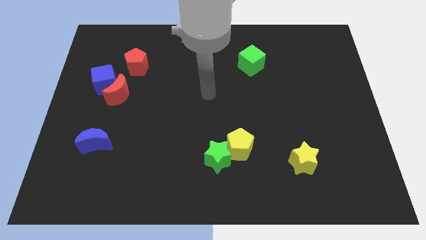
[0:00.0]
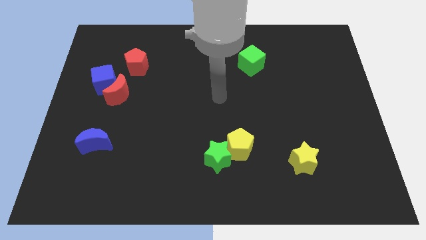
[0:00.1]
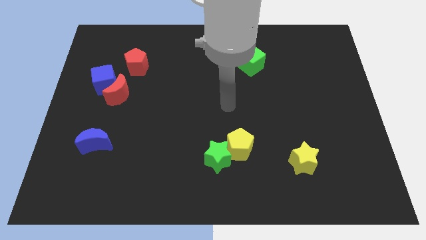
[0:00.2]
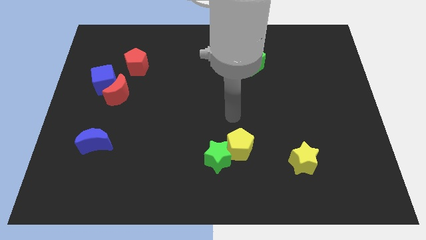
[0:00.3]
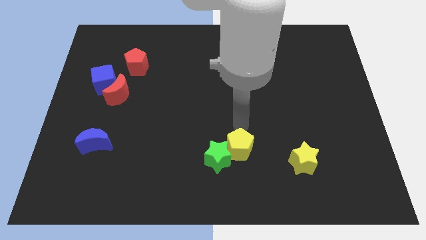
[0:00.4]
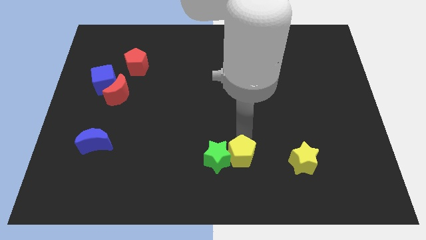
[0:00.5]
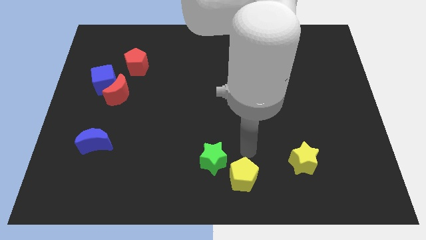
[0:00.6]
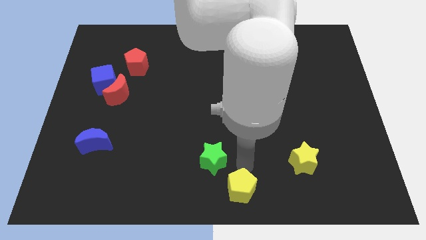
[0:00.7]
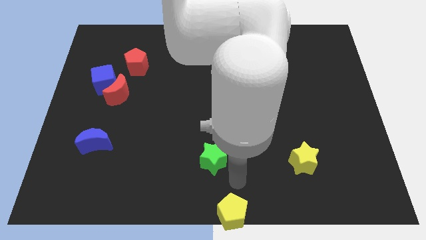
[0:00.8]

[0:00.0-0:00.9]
separate the green star from the yellow pentagon

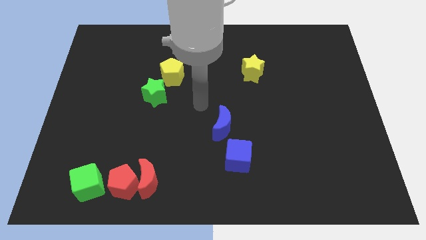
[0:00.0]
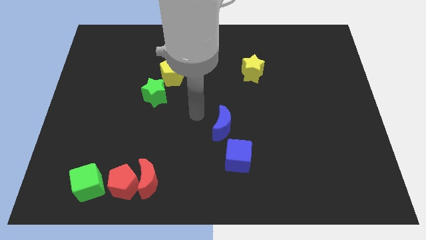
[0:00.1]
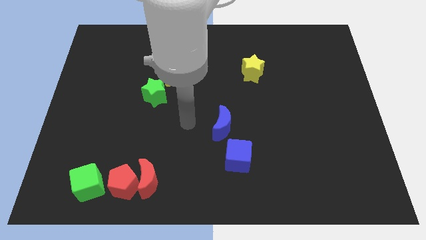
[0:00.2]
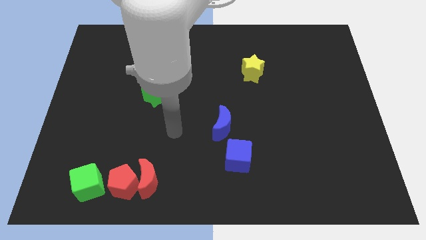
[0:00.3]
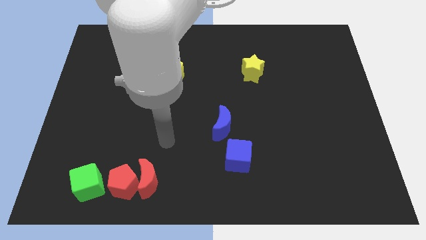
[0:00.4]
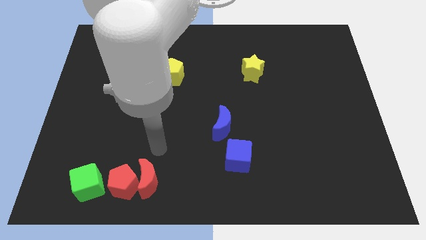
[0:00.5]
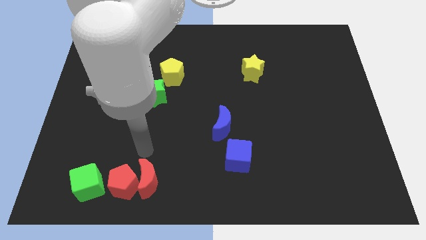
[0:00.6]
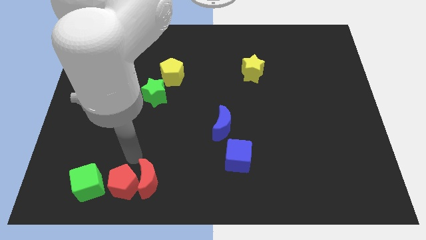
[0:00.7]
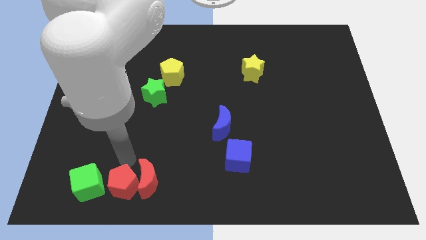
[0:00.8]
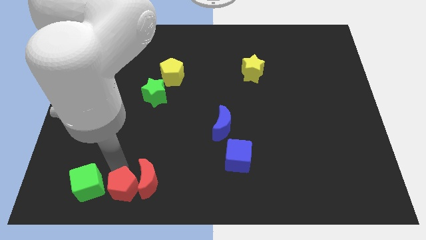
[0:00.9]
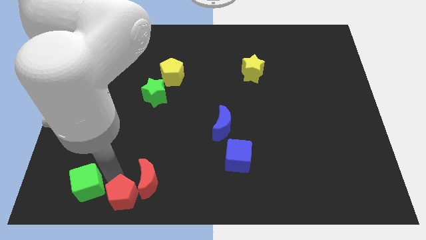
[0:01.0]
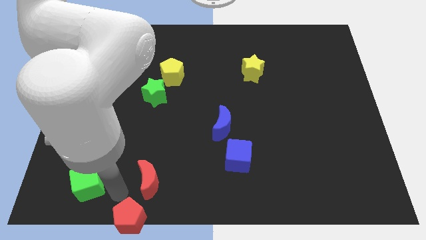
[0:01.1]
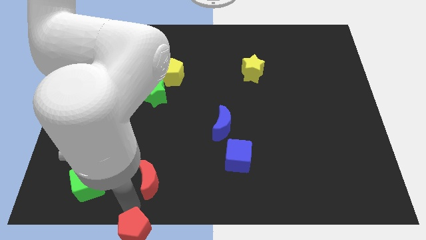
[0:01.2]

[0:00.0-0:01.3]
move the red moon away from the red pentagon

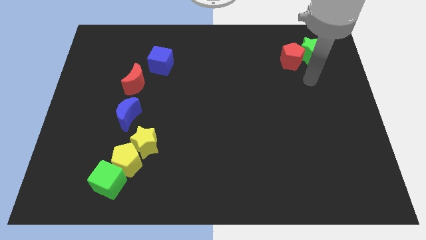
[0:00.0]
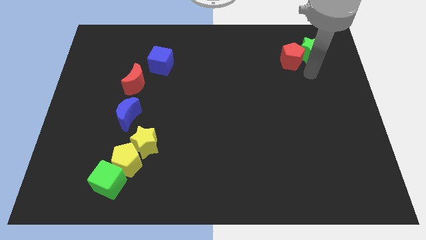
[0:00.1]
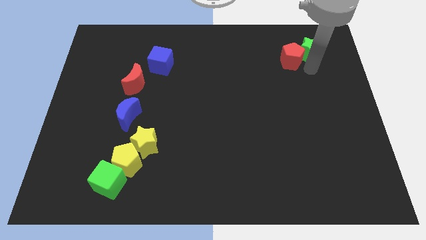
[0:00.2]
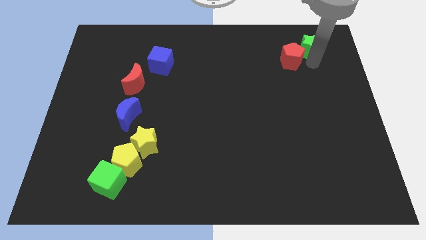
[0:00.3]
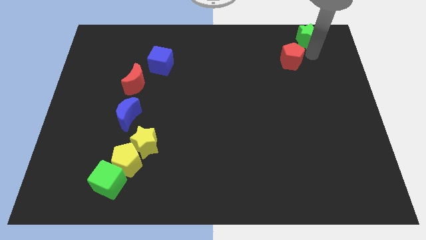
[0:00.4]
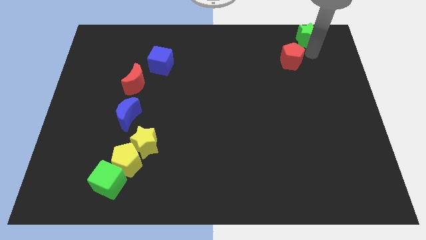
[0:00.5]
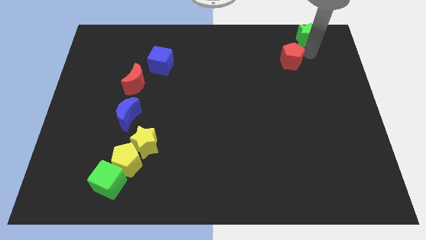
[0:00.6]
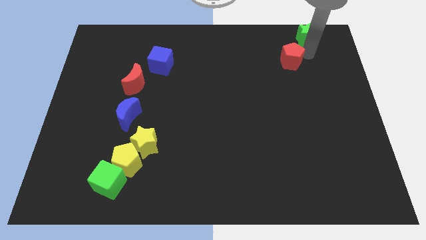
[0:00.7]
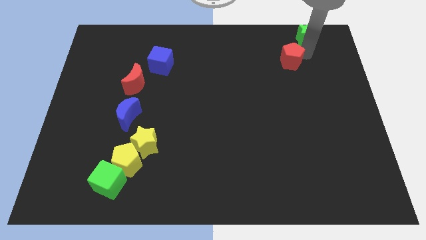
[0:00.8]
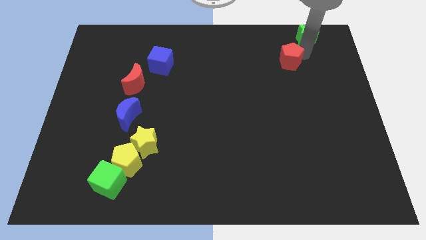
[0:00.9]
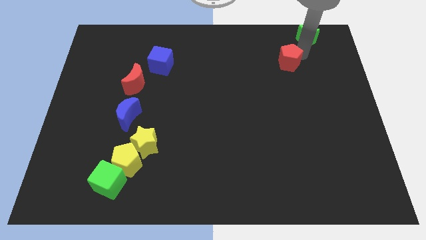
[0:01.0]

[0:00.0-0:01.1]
pull the red pentagon apart from the green star

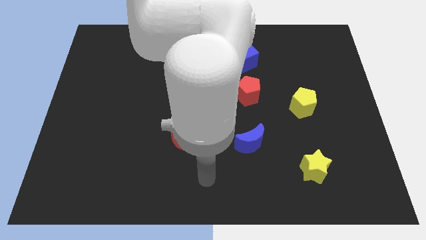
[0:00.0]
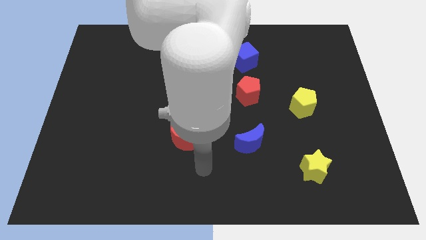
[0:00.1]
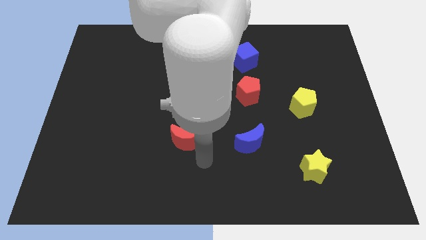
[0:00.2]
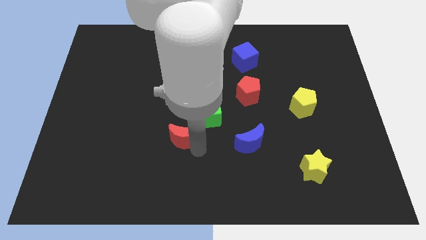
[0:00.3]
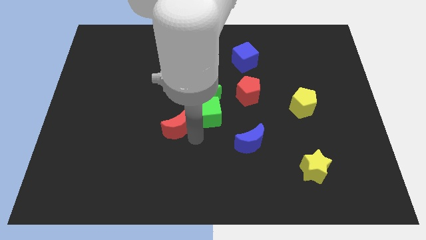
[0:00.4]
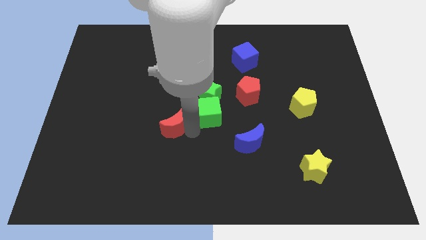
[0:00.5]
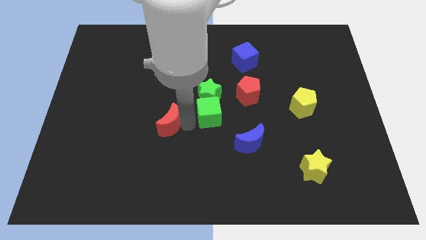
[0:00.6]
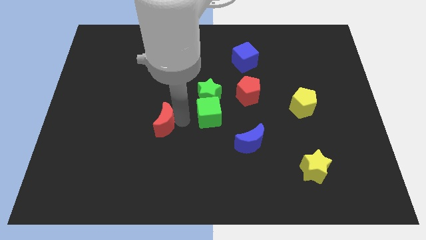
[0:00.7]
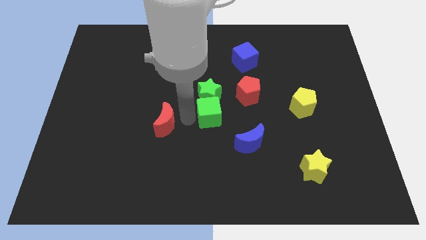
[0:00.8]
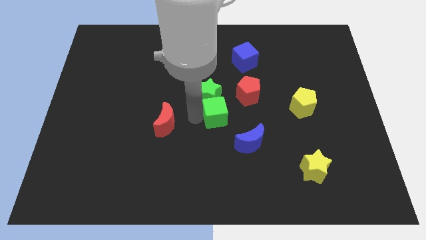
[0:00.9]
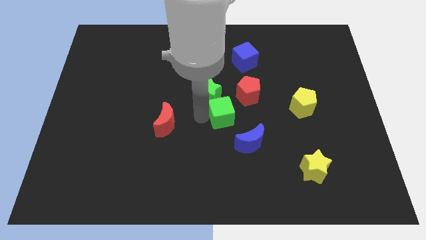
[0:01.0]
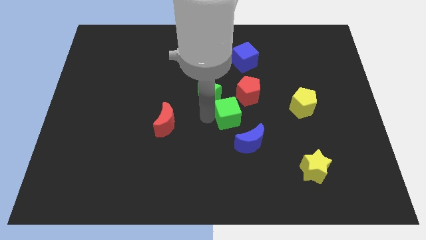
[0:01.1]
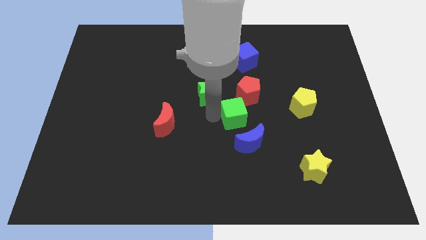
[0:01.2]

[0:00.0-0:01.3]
separate the green cube from the green star and red moon

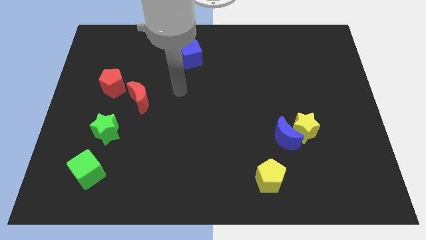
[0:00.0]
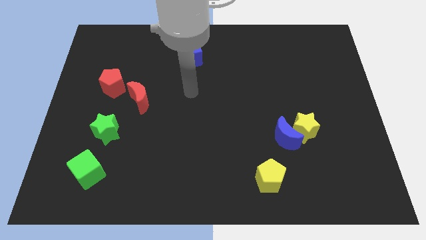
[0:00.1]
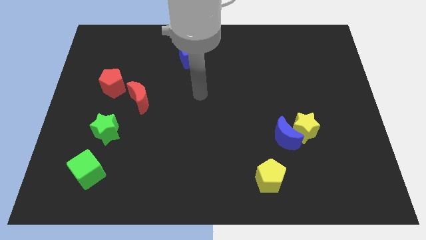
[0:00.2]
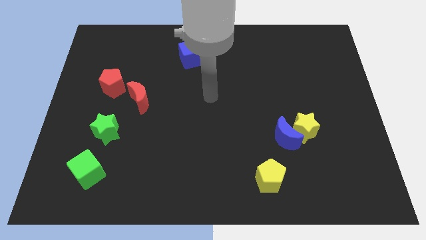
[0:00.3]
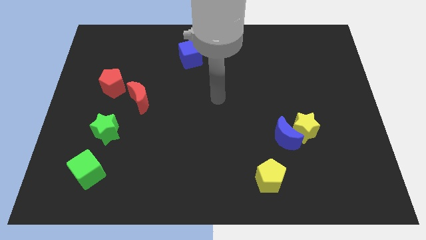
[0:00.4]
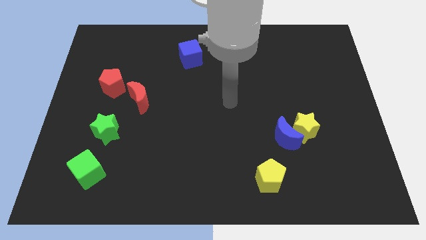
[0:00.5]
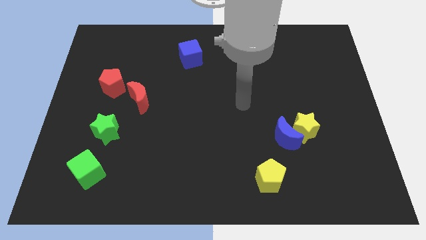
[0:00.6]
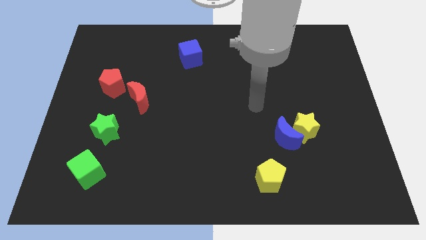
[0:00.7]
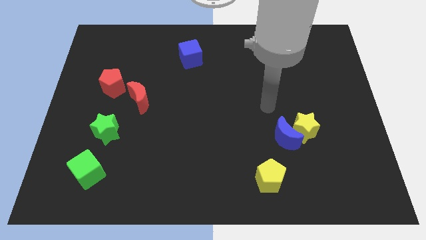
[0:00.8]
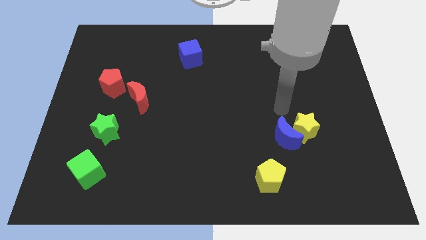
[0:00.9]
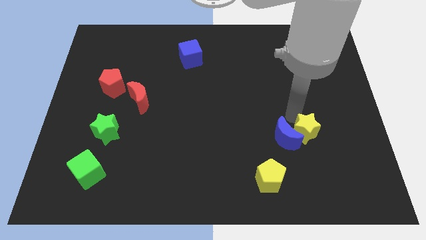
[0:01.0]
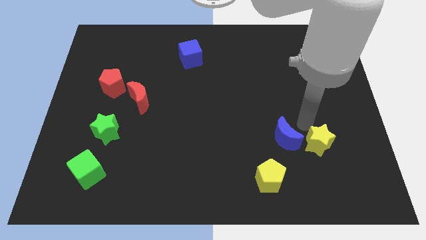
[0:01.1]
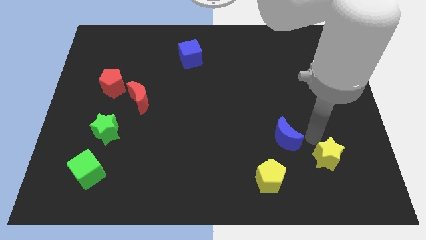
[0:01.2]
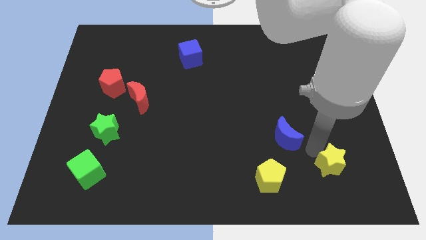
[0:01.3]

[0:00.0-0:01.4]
move the blue moon away from the yellow star

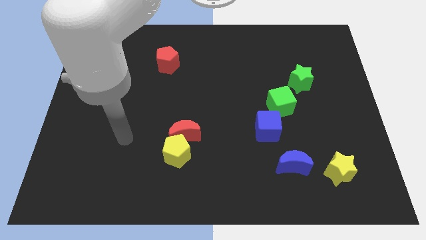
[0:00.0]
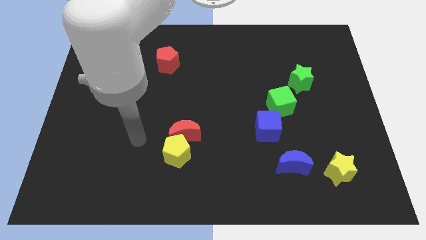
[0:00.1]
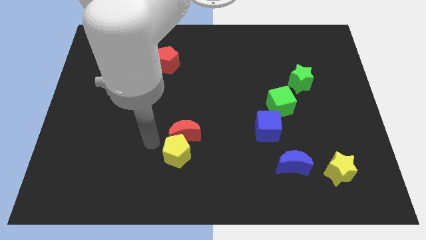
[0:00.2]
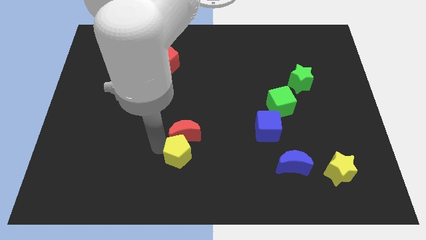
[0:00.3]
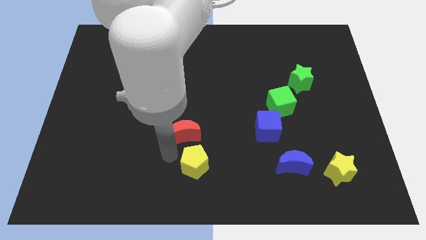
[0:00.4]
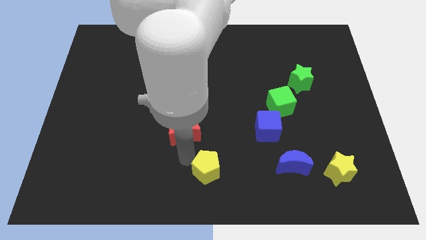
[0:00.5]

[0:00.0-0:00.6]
separate the red moon from the yellow pentagon

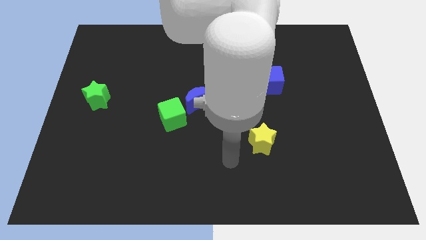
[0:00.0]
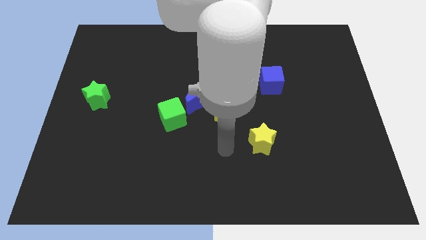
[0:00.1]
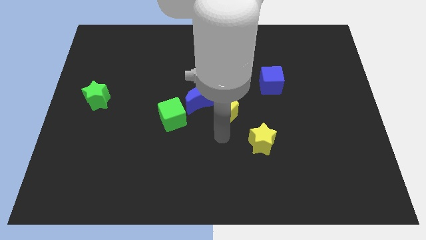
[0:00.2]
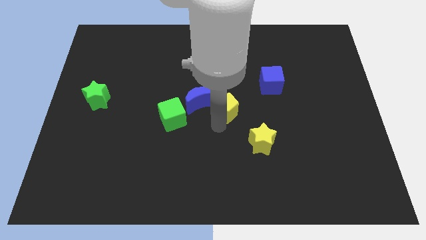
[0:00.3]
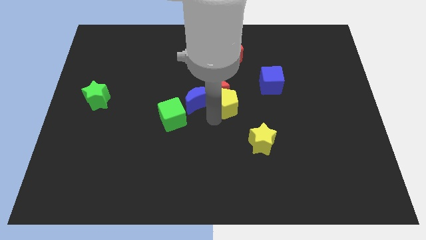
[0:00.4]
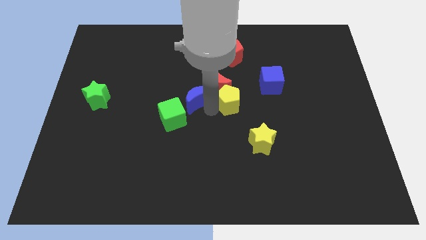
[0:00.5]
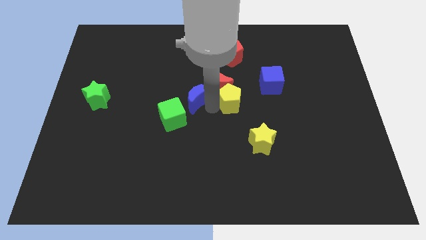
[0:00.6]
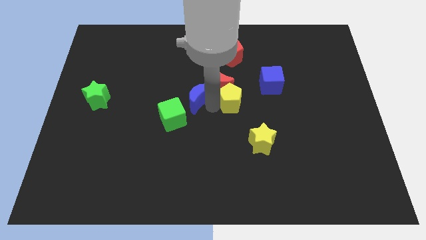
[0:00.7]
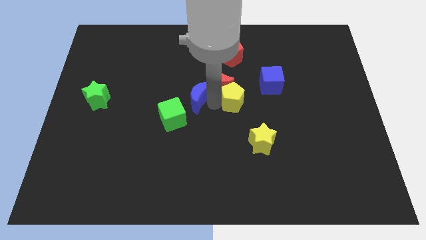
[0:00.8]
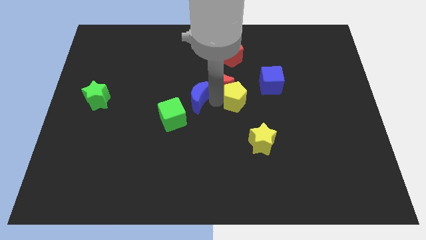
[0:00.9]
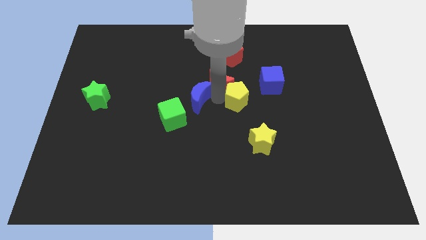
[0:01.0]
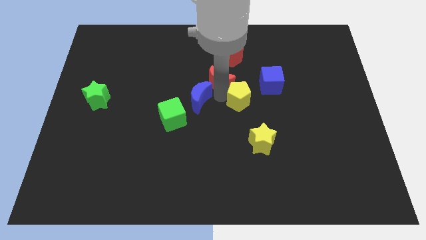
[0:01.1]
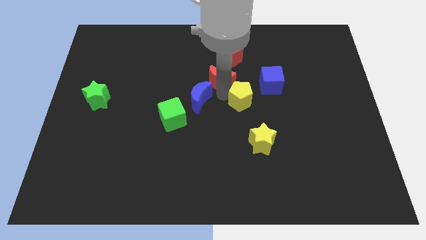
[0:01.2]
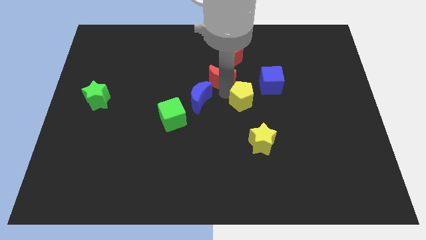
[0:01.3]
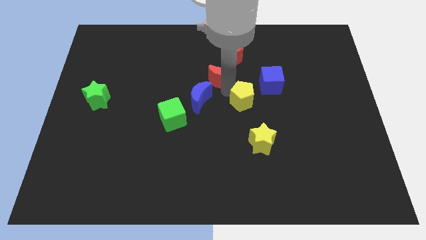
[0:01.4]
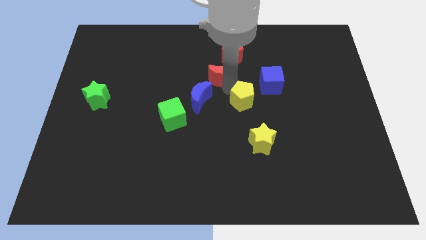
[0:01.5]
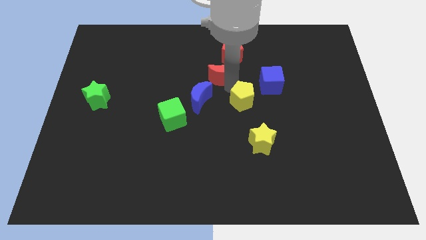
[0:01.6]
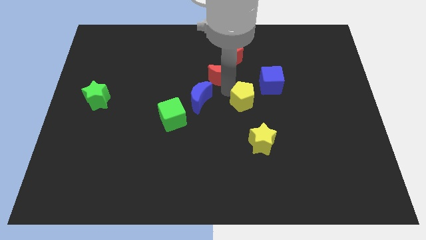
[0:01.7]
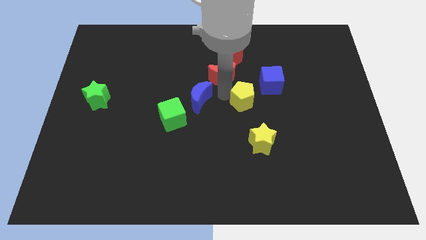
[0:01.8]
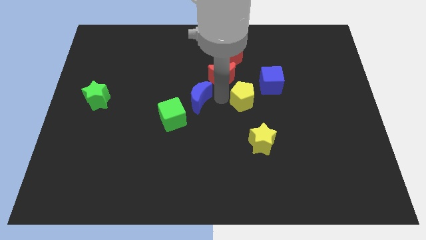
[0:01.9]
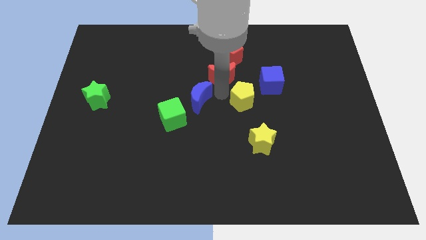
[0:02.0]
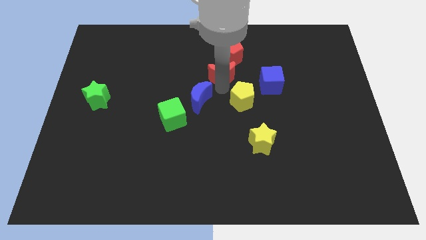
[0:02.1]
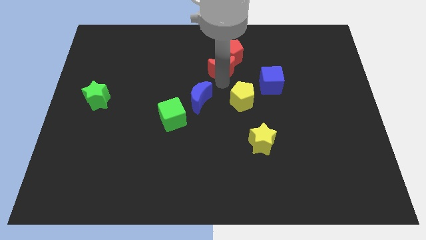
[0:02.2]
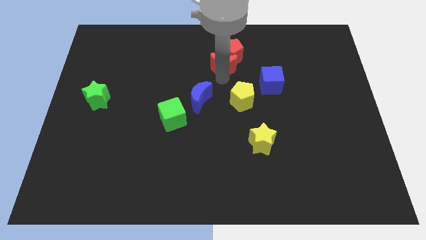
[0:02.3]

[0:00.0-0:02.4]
pull the red moon apart from the blue moon and yellow pentagon

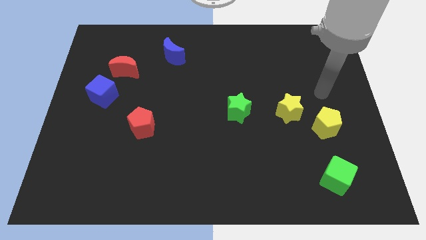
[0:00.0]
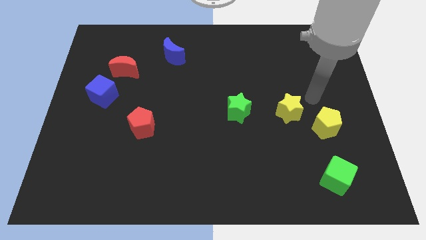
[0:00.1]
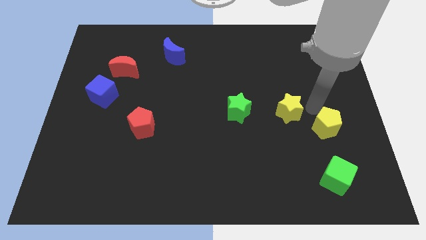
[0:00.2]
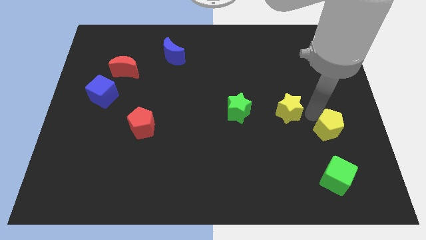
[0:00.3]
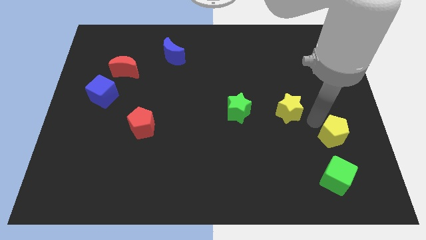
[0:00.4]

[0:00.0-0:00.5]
pull the yellow star apart from the yellow pentagon
